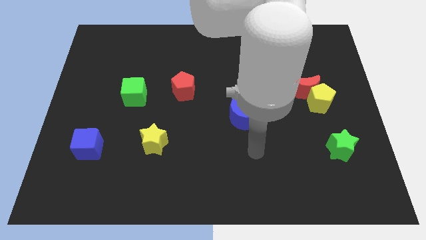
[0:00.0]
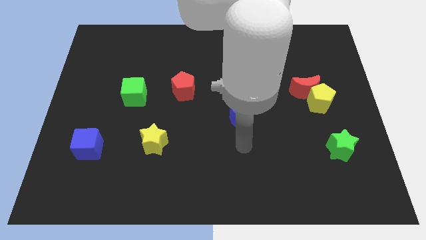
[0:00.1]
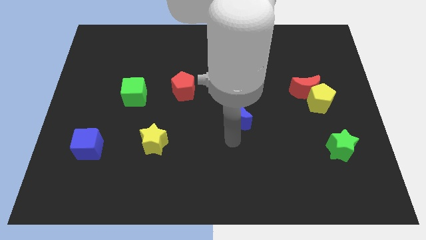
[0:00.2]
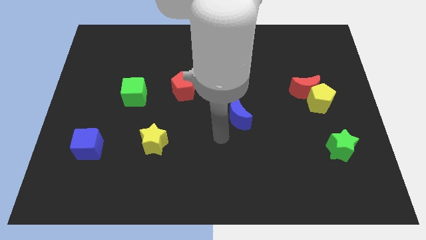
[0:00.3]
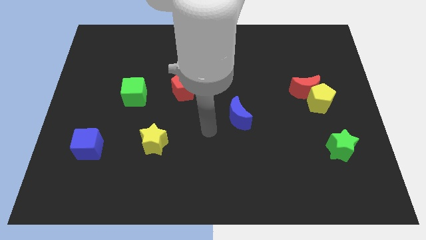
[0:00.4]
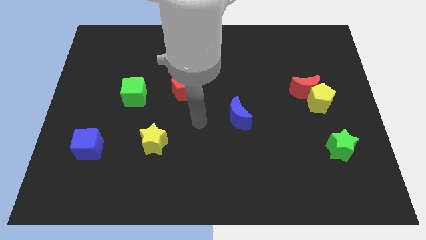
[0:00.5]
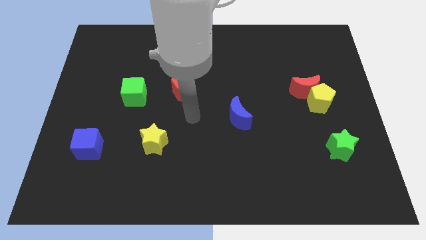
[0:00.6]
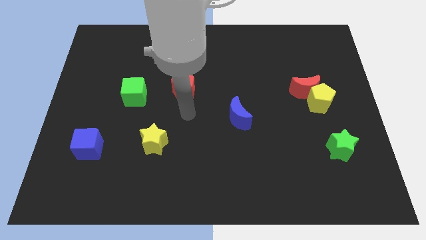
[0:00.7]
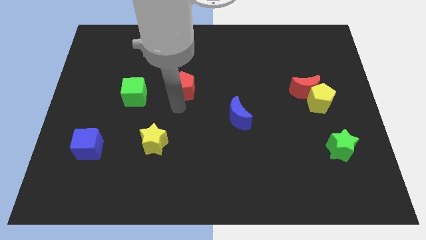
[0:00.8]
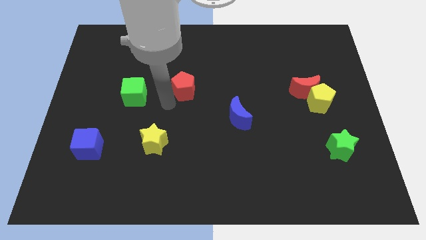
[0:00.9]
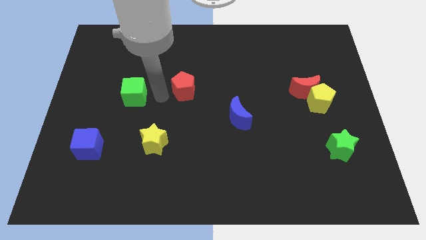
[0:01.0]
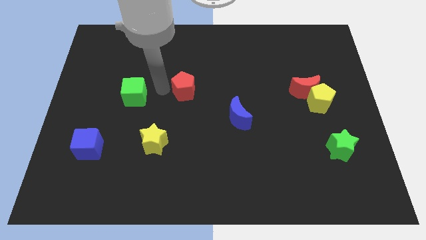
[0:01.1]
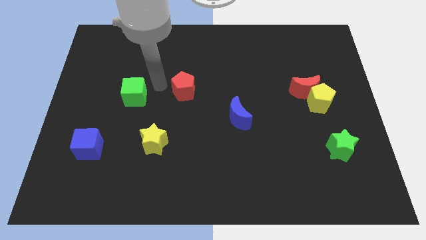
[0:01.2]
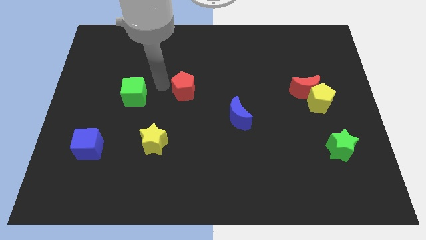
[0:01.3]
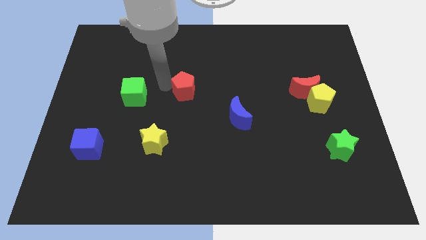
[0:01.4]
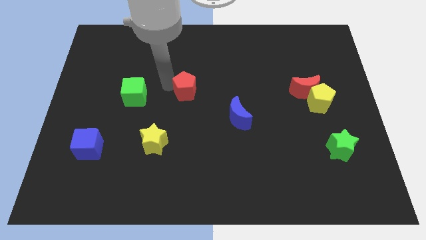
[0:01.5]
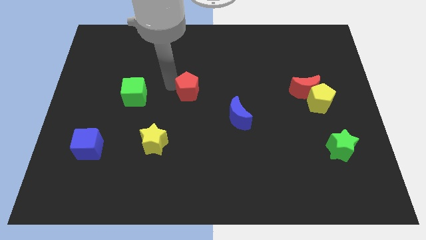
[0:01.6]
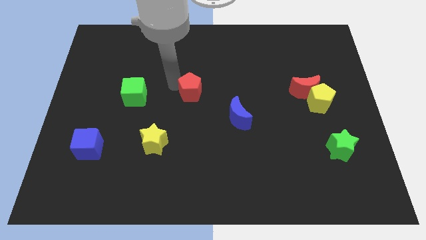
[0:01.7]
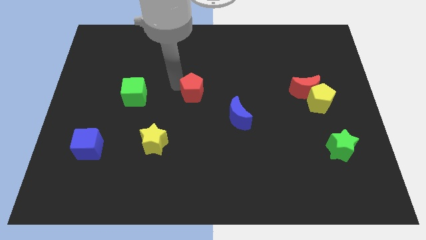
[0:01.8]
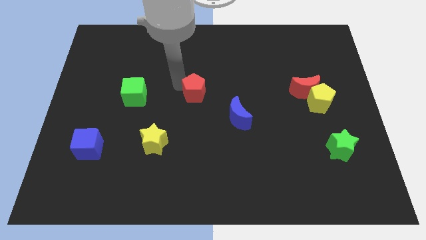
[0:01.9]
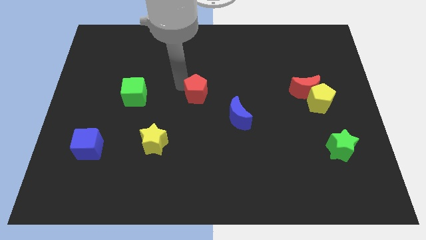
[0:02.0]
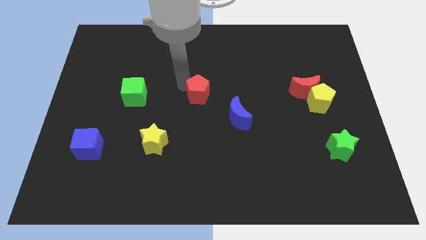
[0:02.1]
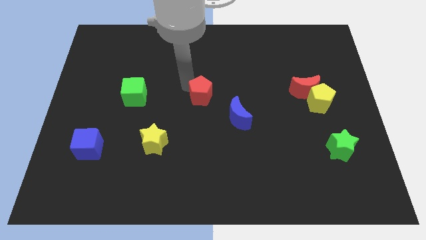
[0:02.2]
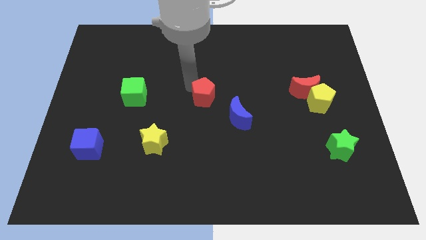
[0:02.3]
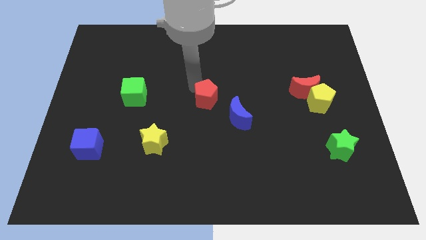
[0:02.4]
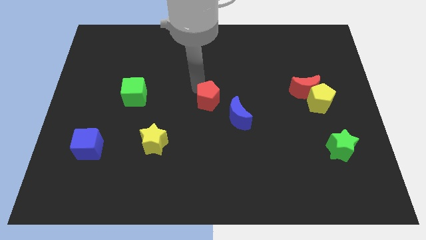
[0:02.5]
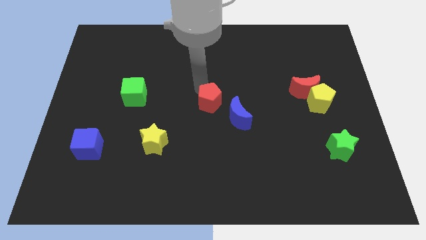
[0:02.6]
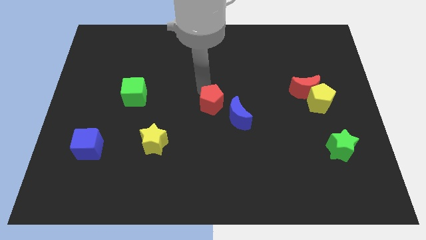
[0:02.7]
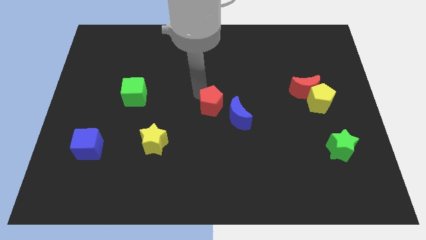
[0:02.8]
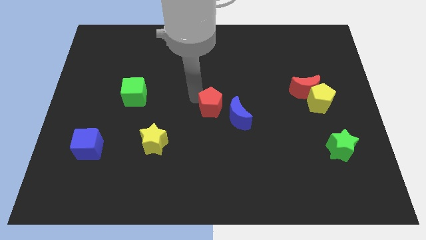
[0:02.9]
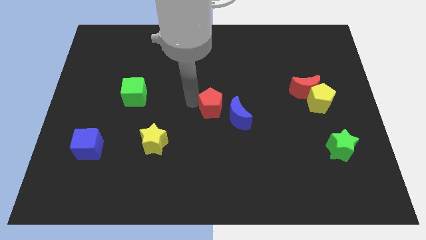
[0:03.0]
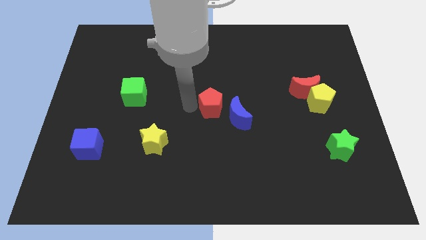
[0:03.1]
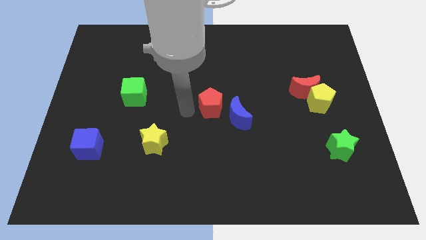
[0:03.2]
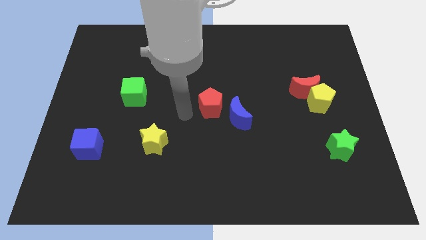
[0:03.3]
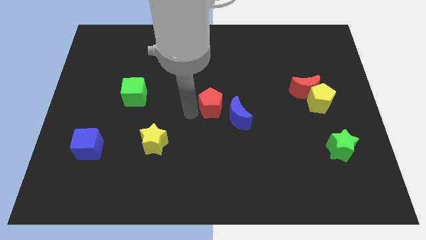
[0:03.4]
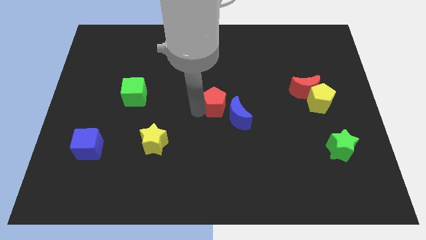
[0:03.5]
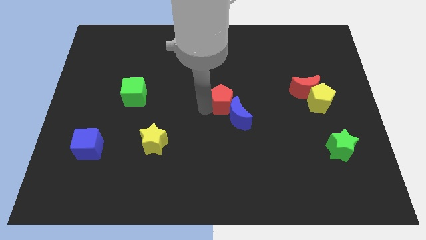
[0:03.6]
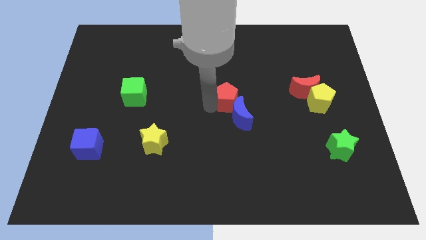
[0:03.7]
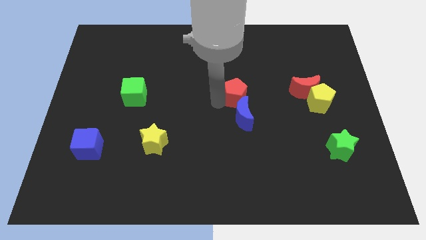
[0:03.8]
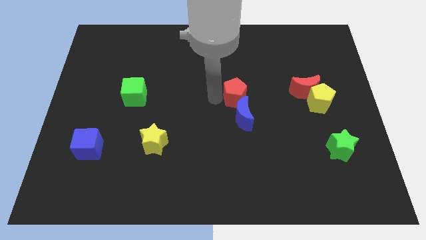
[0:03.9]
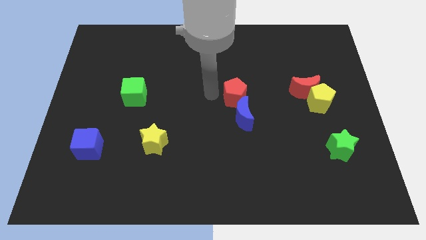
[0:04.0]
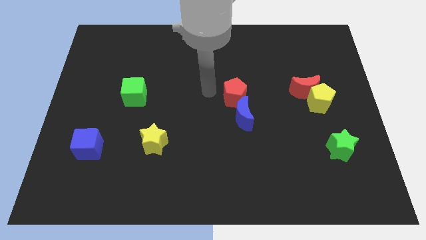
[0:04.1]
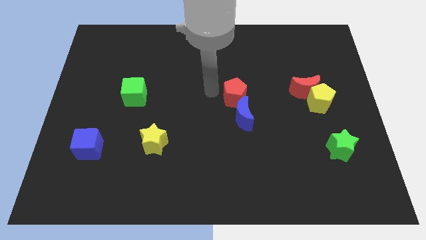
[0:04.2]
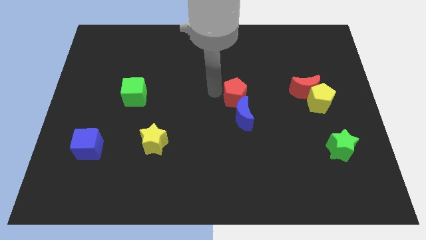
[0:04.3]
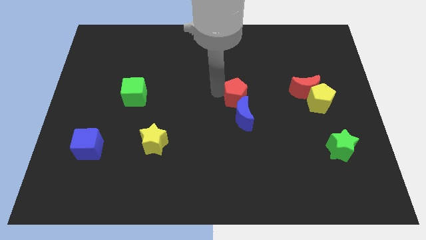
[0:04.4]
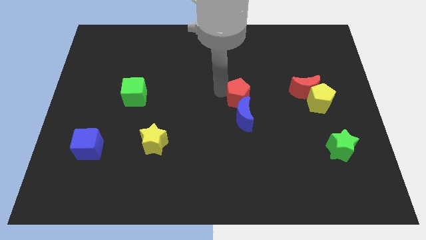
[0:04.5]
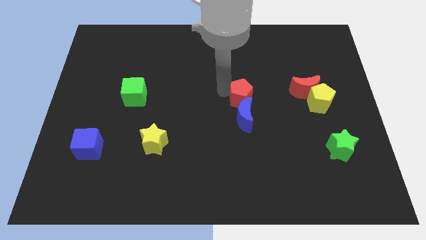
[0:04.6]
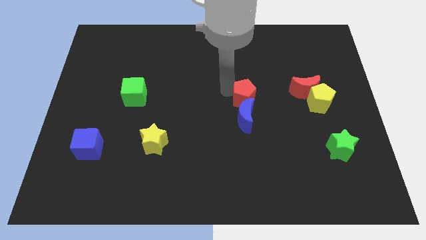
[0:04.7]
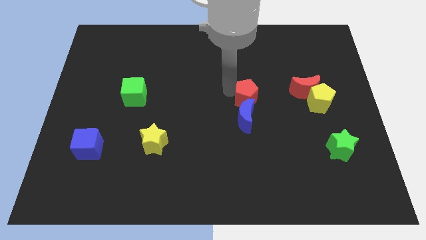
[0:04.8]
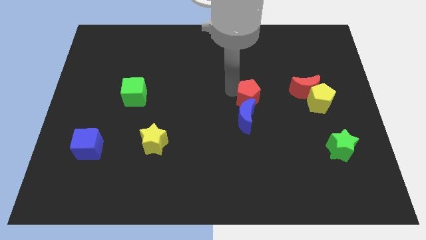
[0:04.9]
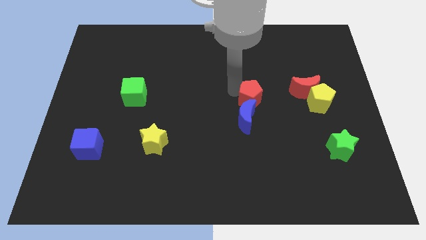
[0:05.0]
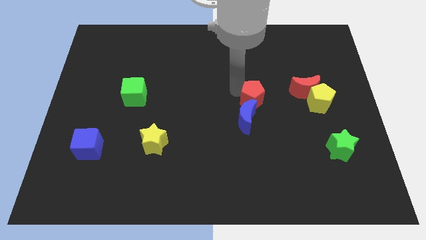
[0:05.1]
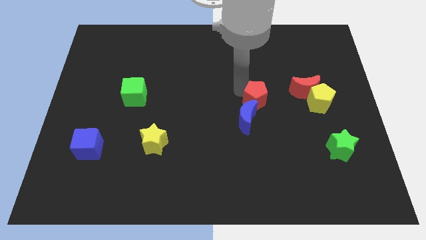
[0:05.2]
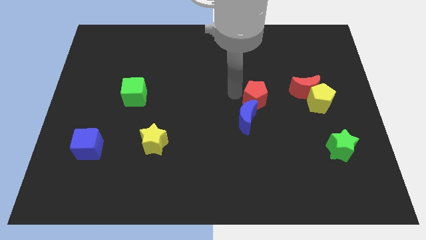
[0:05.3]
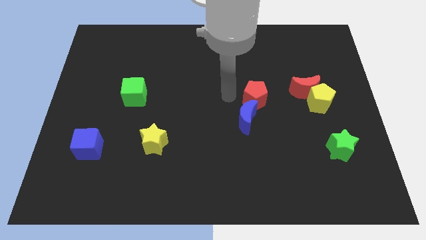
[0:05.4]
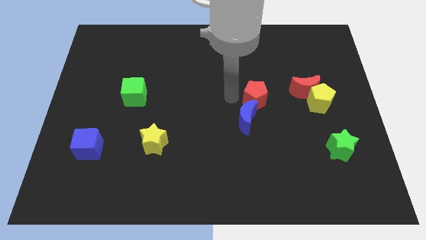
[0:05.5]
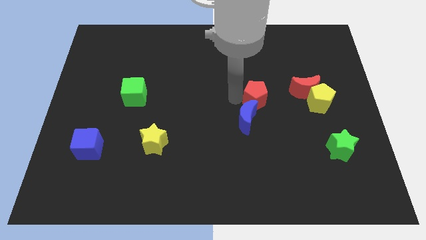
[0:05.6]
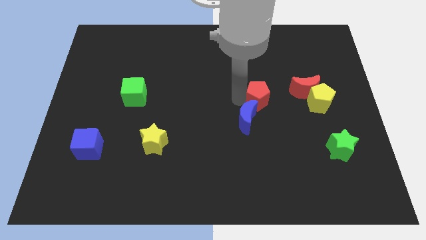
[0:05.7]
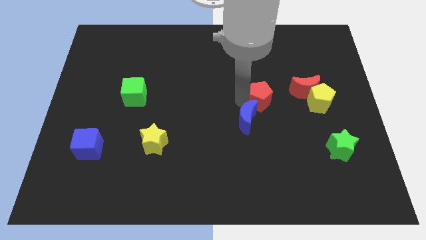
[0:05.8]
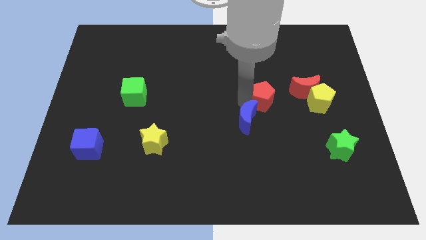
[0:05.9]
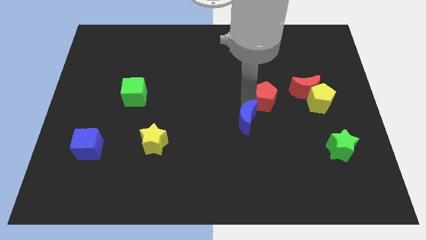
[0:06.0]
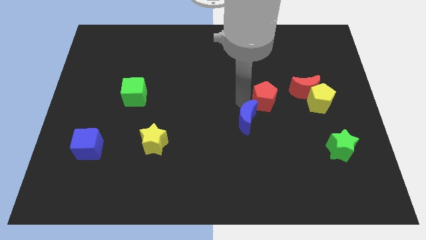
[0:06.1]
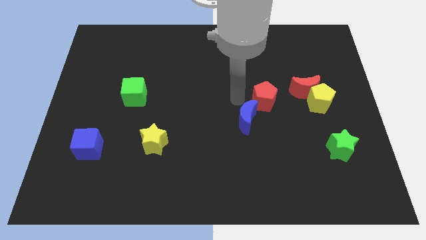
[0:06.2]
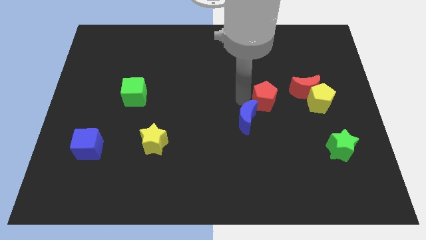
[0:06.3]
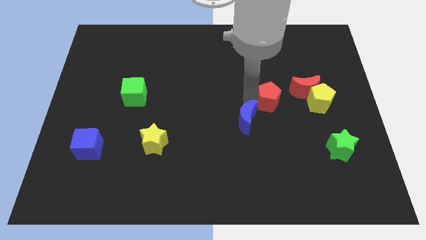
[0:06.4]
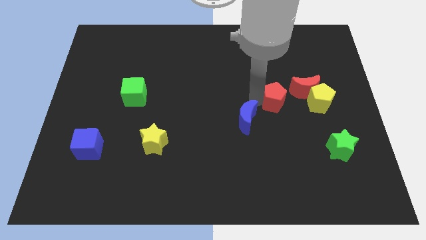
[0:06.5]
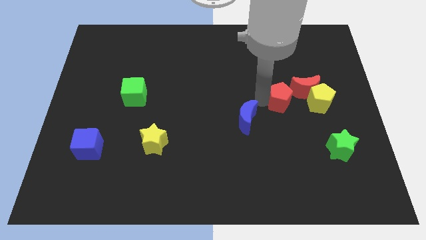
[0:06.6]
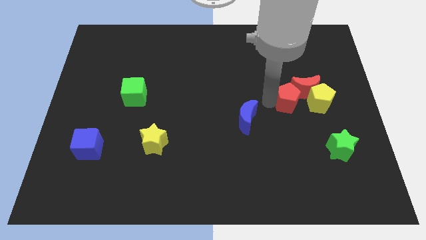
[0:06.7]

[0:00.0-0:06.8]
move the red pentagon to the red moon
